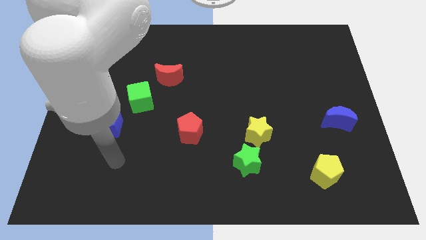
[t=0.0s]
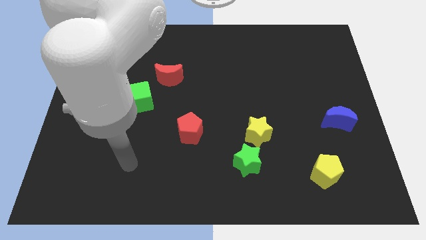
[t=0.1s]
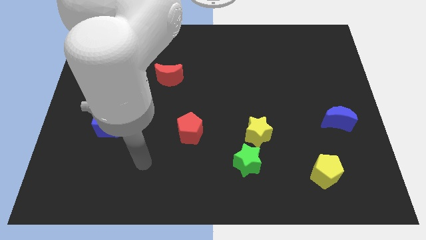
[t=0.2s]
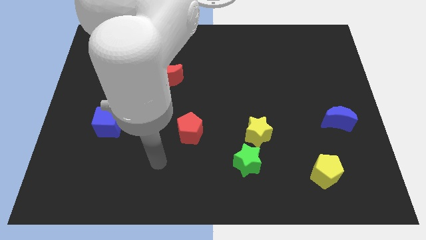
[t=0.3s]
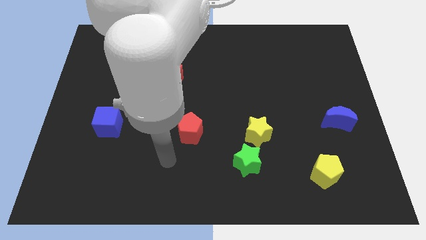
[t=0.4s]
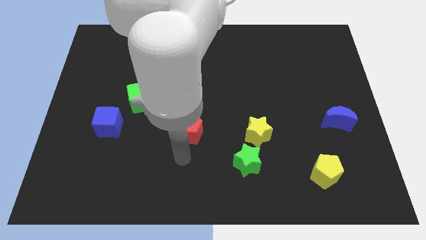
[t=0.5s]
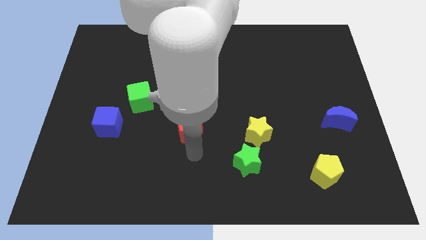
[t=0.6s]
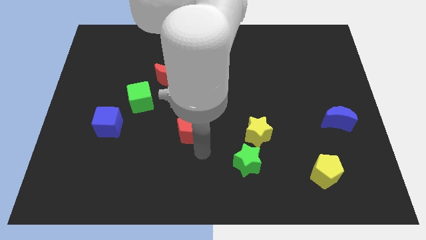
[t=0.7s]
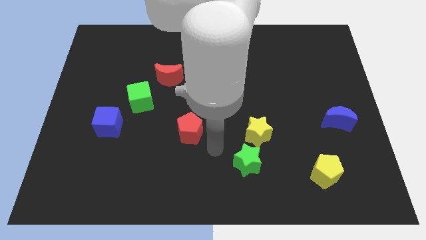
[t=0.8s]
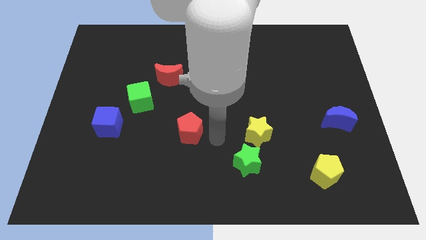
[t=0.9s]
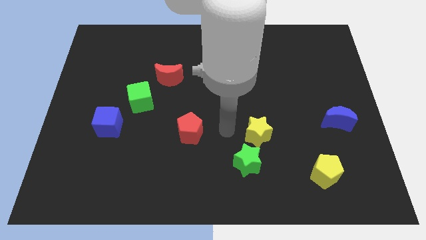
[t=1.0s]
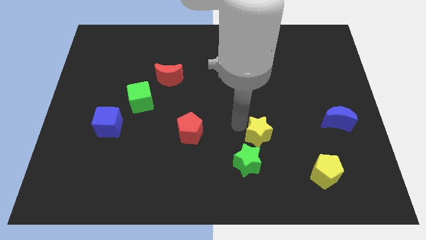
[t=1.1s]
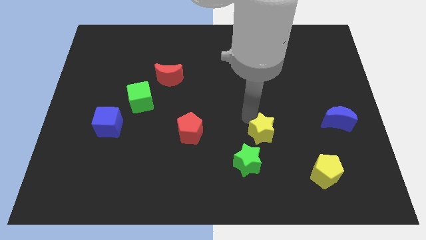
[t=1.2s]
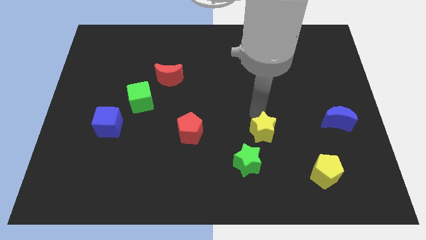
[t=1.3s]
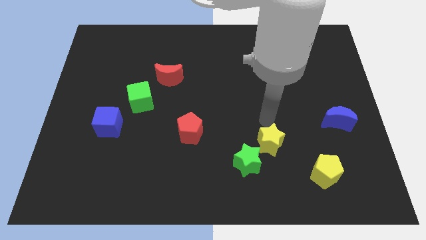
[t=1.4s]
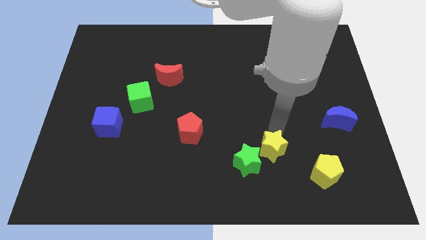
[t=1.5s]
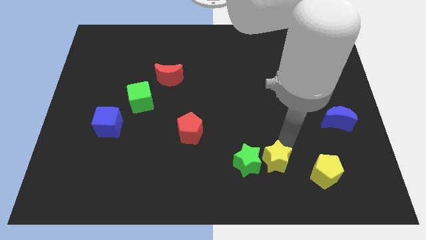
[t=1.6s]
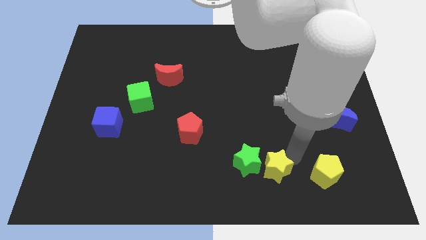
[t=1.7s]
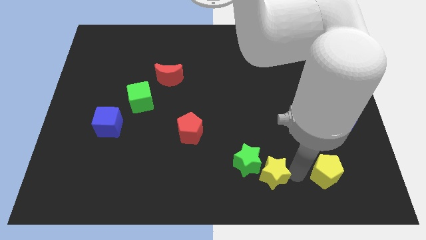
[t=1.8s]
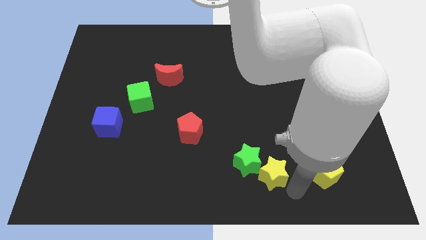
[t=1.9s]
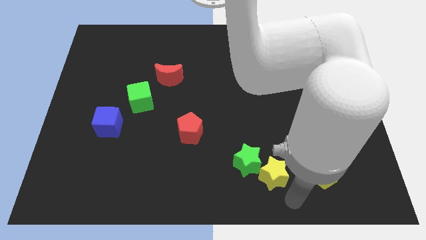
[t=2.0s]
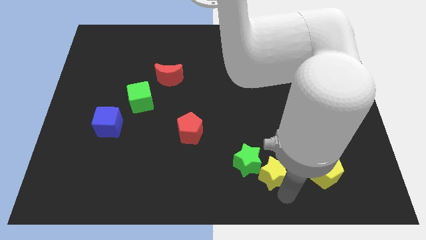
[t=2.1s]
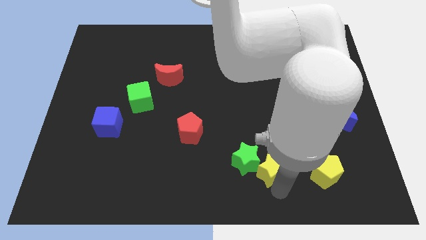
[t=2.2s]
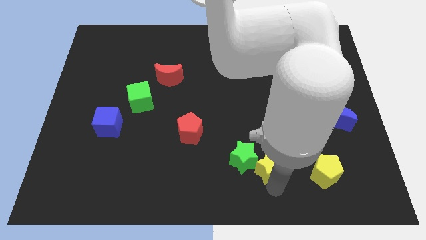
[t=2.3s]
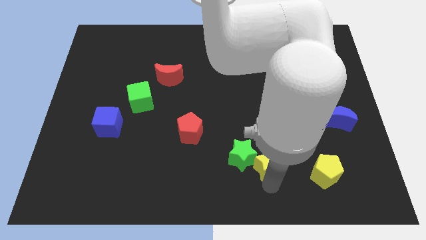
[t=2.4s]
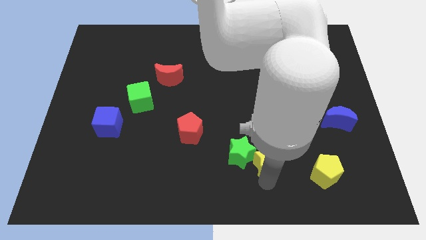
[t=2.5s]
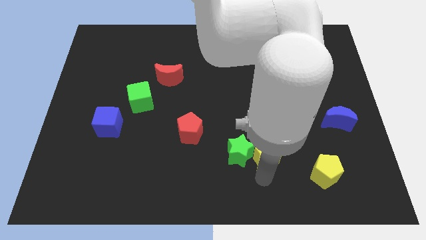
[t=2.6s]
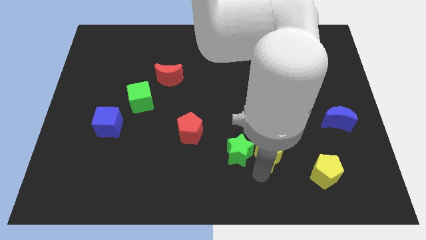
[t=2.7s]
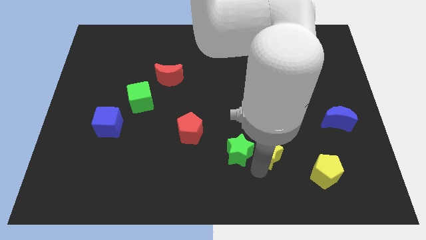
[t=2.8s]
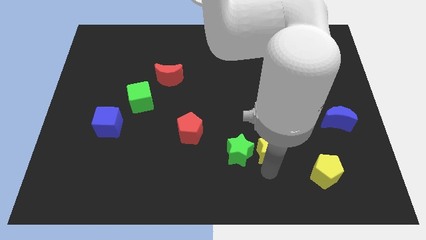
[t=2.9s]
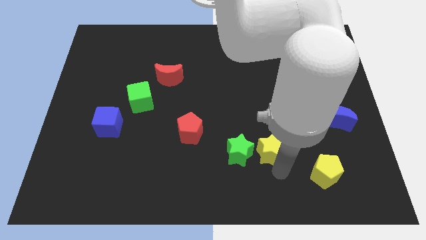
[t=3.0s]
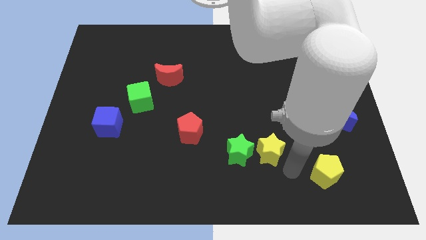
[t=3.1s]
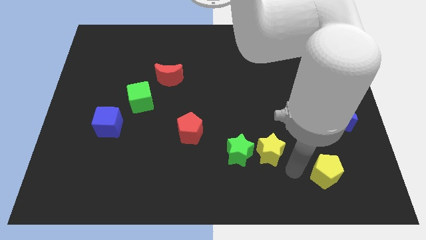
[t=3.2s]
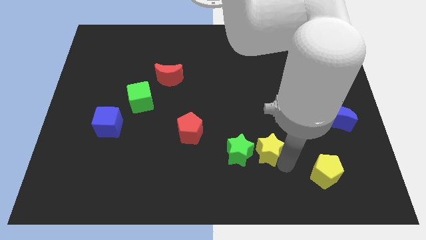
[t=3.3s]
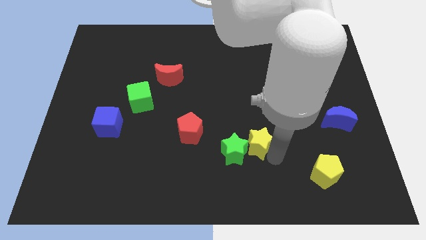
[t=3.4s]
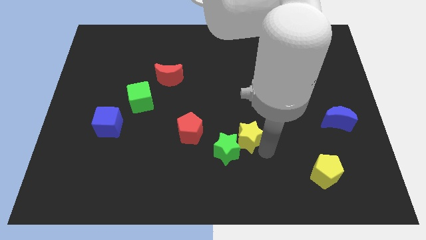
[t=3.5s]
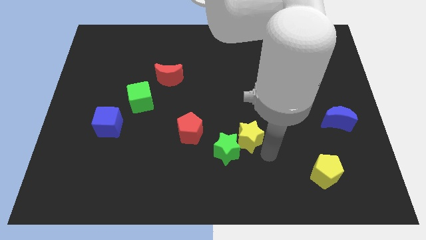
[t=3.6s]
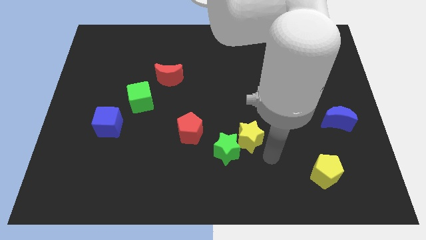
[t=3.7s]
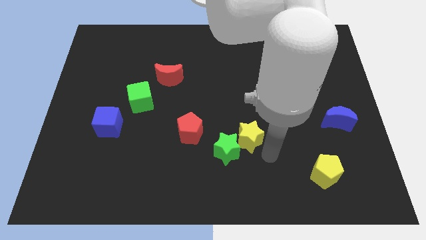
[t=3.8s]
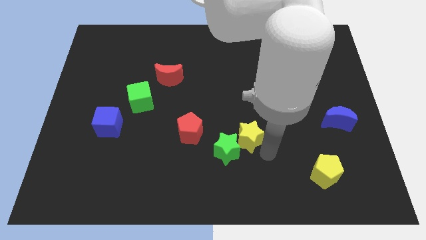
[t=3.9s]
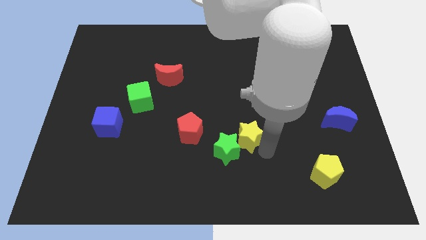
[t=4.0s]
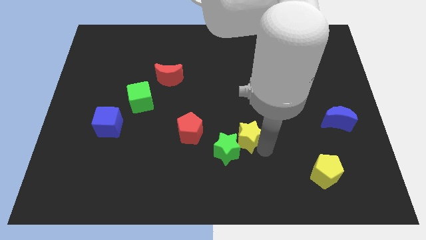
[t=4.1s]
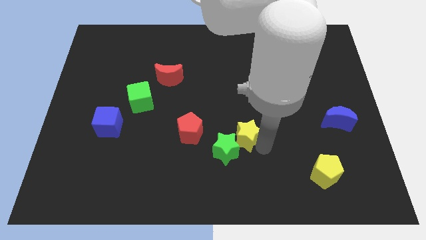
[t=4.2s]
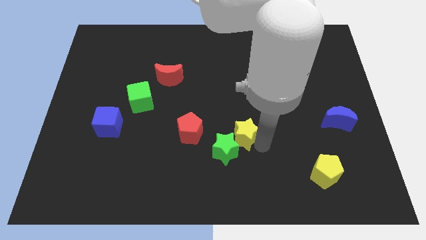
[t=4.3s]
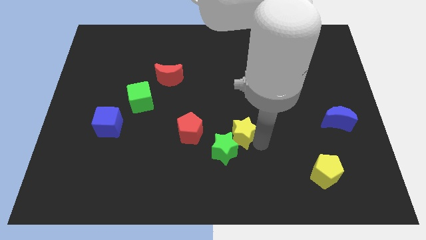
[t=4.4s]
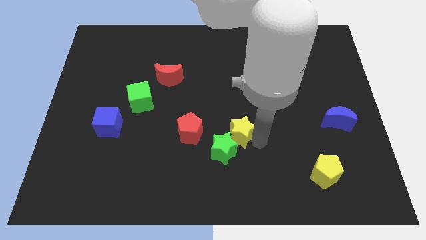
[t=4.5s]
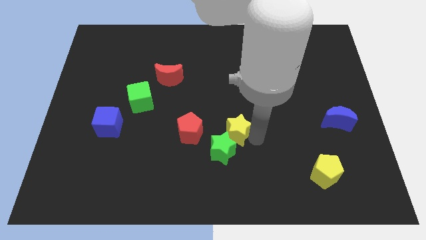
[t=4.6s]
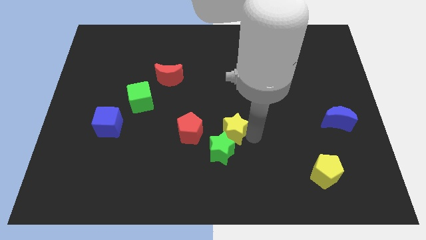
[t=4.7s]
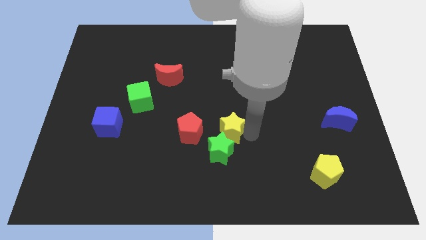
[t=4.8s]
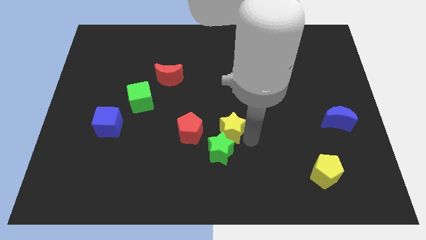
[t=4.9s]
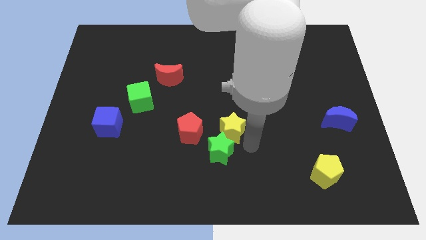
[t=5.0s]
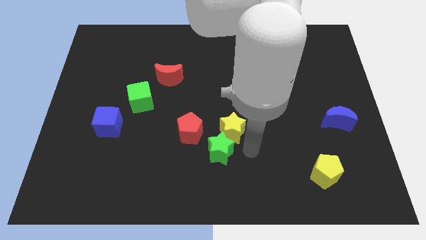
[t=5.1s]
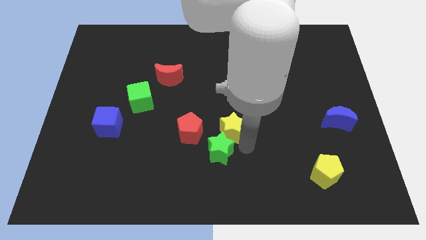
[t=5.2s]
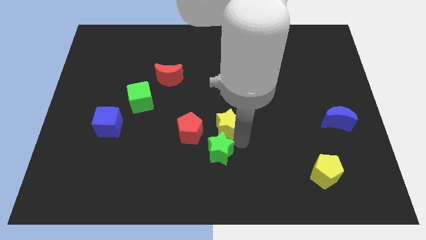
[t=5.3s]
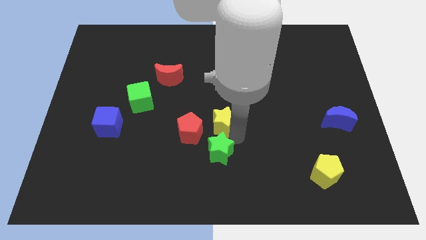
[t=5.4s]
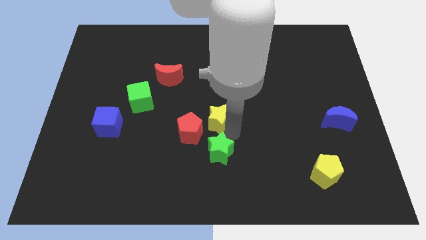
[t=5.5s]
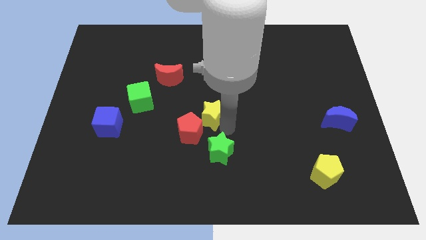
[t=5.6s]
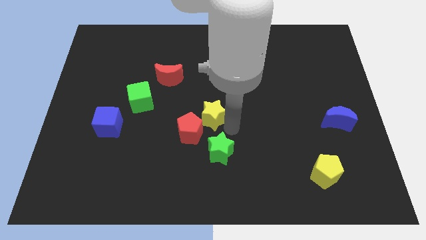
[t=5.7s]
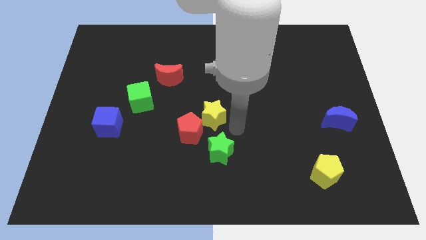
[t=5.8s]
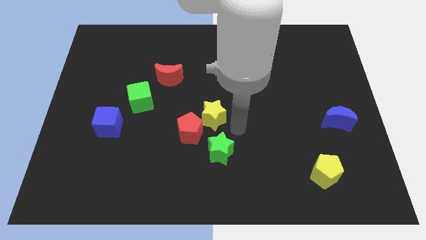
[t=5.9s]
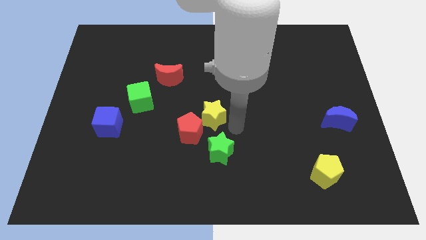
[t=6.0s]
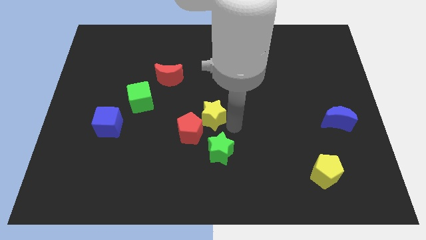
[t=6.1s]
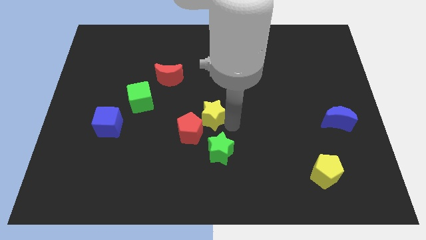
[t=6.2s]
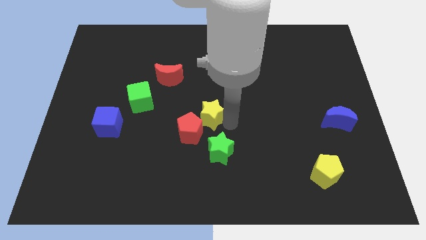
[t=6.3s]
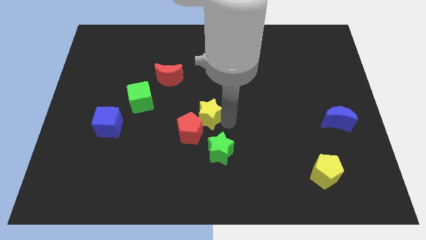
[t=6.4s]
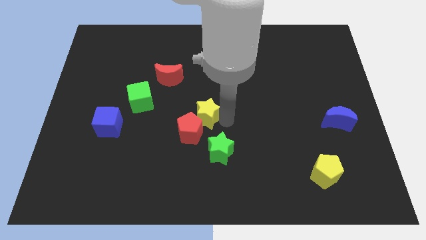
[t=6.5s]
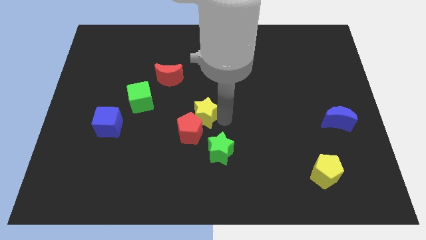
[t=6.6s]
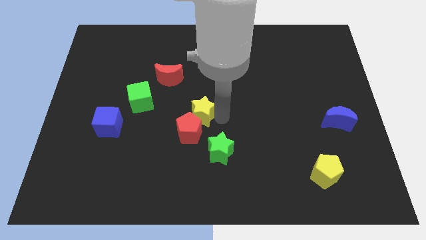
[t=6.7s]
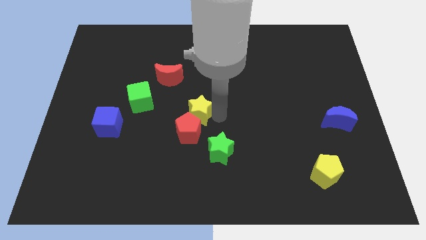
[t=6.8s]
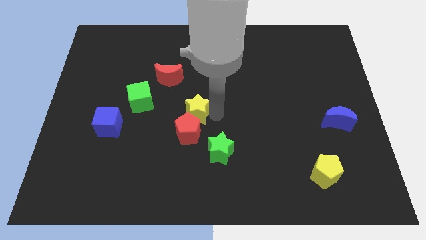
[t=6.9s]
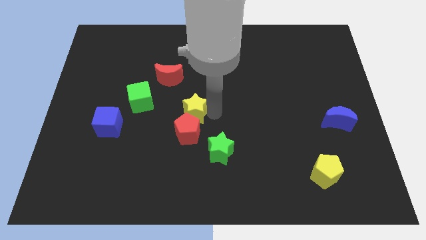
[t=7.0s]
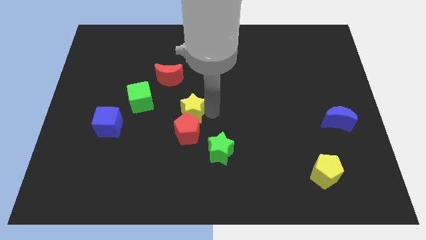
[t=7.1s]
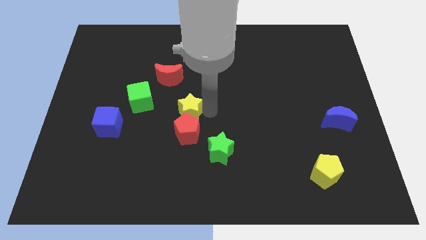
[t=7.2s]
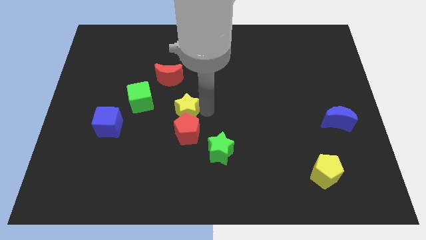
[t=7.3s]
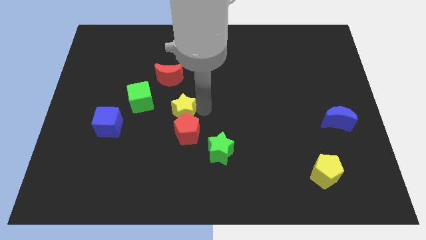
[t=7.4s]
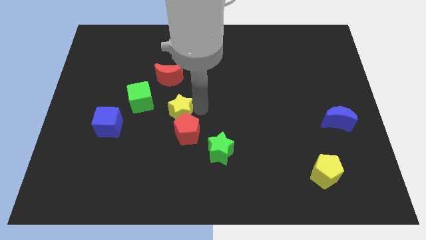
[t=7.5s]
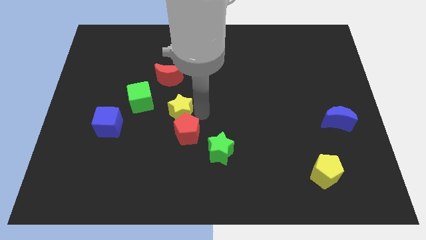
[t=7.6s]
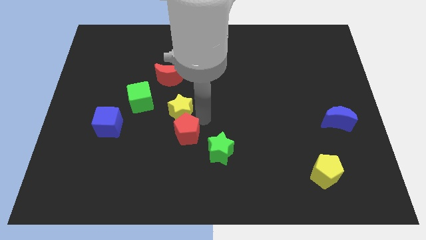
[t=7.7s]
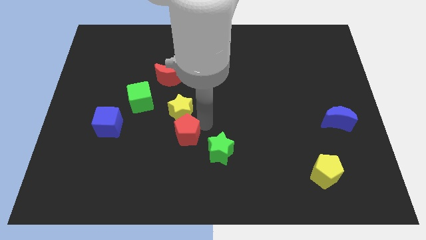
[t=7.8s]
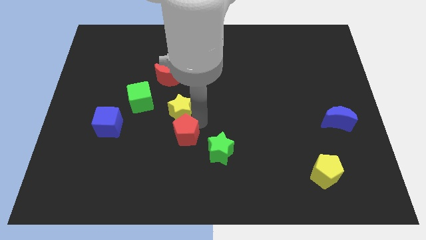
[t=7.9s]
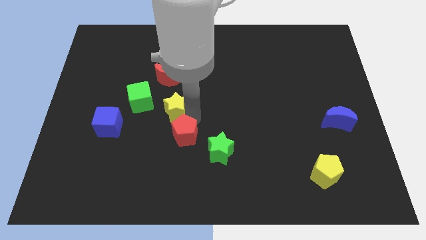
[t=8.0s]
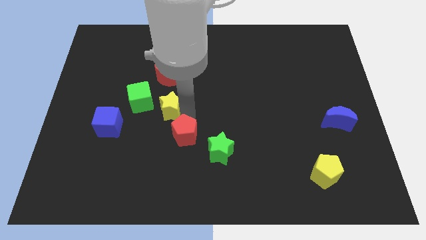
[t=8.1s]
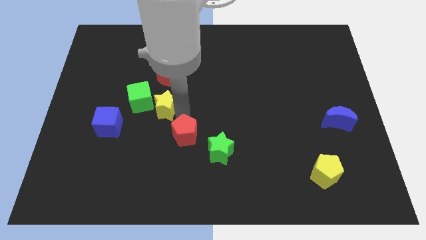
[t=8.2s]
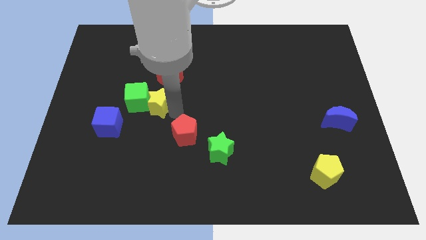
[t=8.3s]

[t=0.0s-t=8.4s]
slide the yellow star towards the green cube
